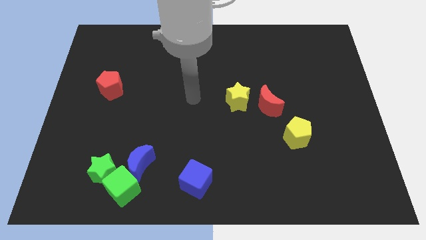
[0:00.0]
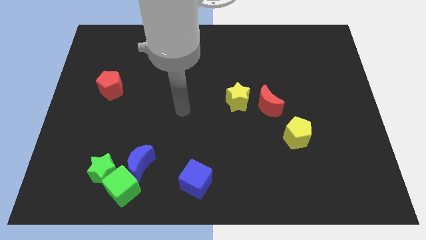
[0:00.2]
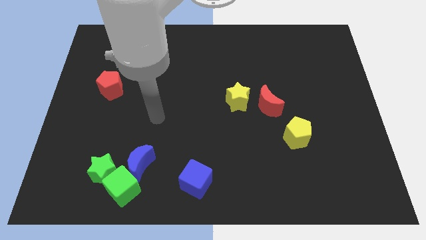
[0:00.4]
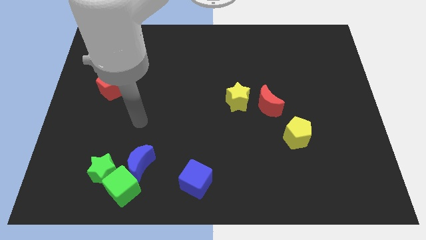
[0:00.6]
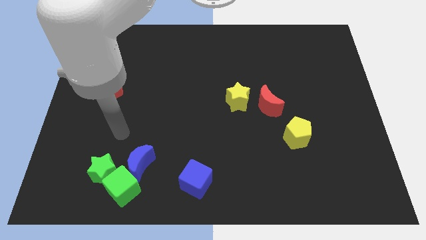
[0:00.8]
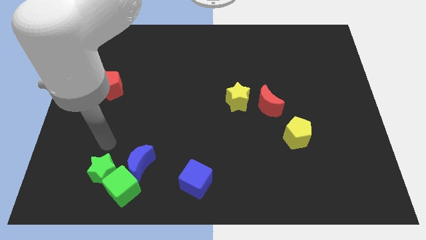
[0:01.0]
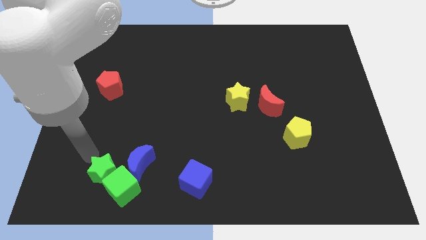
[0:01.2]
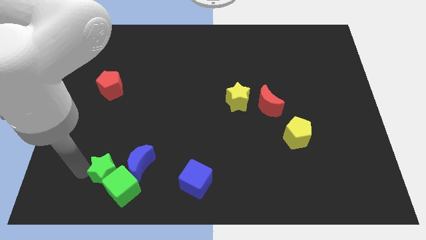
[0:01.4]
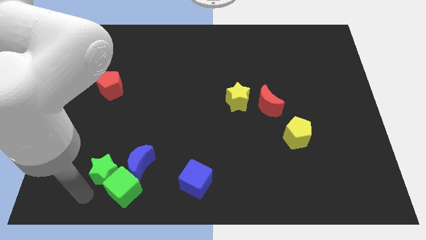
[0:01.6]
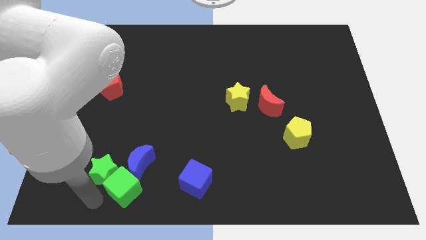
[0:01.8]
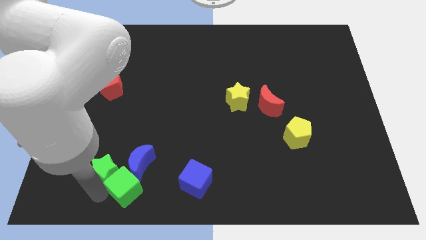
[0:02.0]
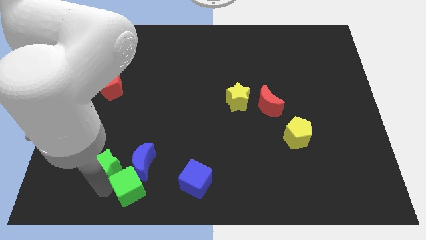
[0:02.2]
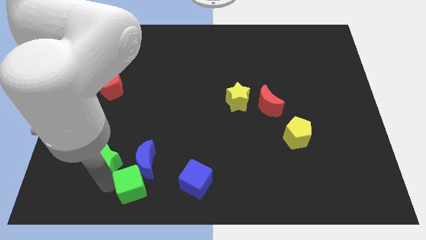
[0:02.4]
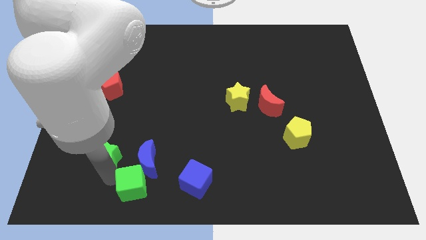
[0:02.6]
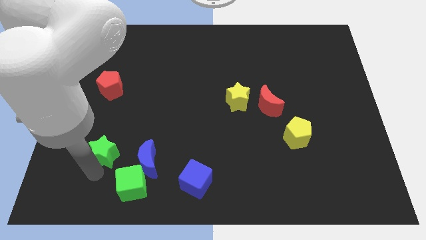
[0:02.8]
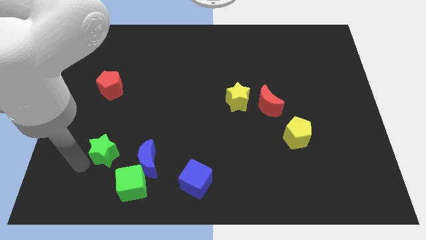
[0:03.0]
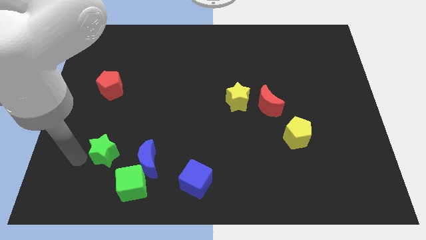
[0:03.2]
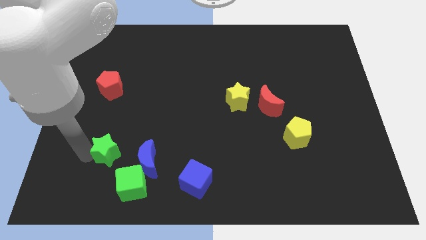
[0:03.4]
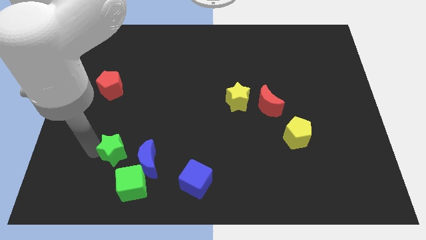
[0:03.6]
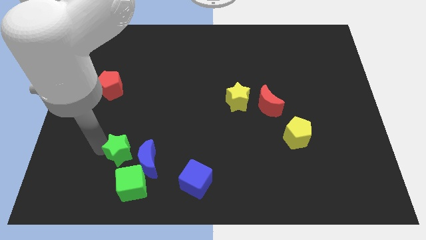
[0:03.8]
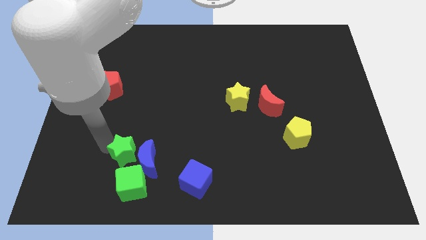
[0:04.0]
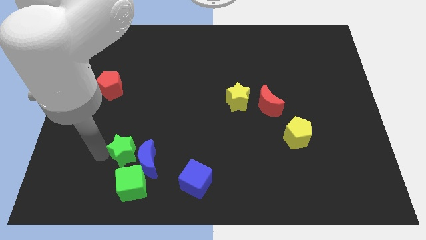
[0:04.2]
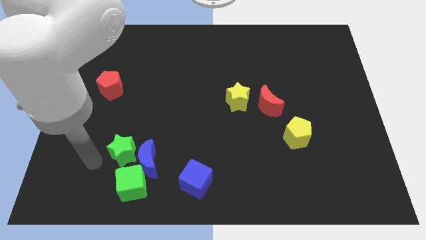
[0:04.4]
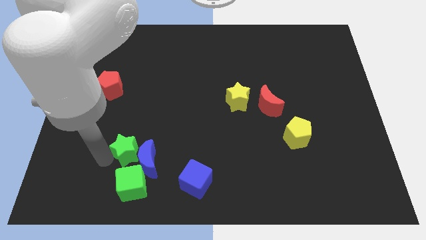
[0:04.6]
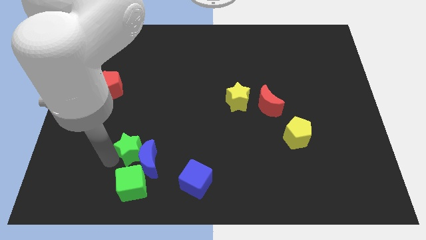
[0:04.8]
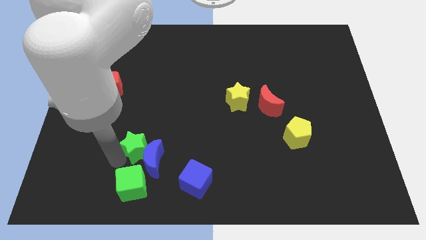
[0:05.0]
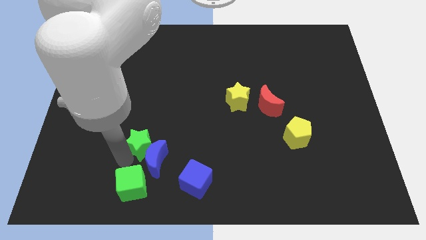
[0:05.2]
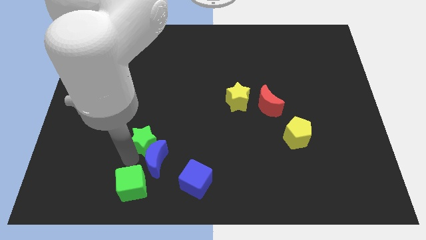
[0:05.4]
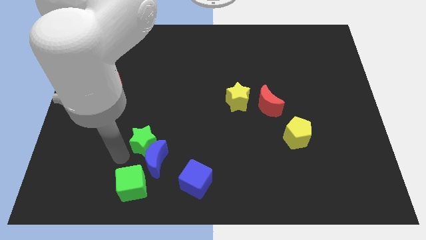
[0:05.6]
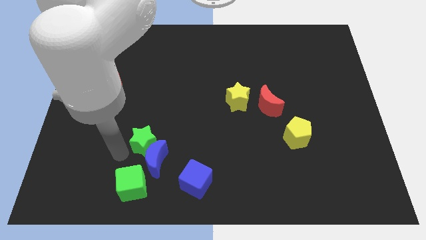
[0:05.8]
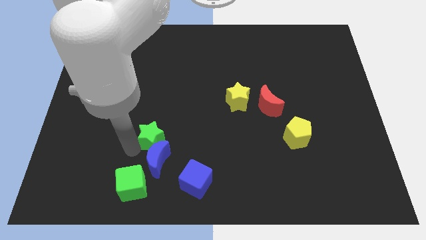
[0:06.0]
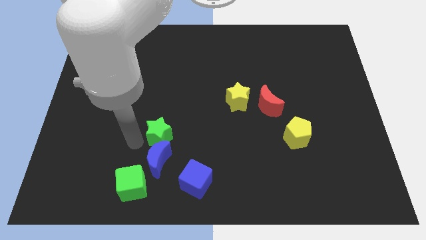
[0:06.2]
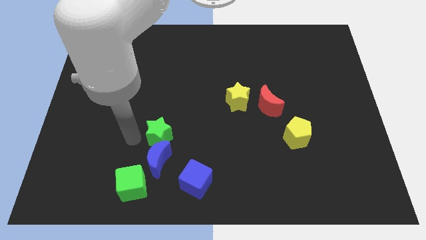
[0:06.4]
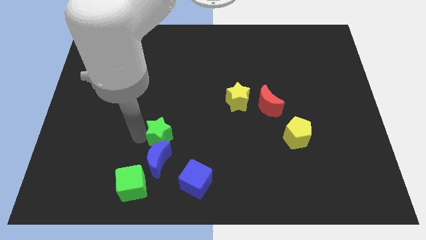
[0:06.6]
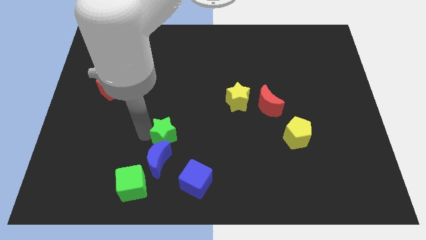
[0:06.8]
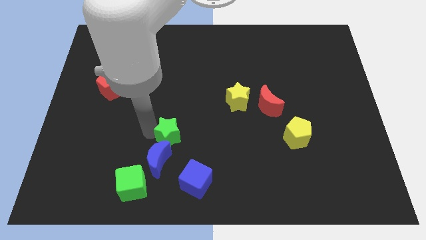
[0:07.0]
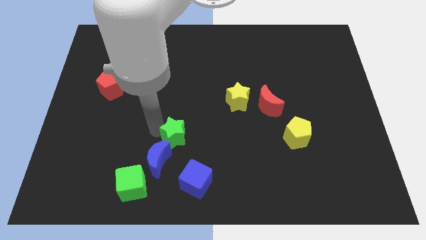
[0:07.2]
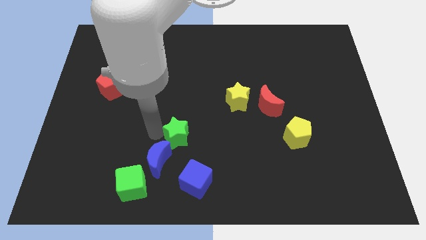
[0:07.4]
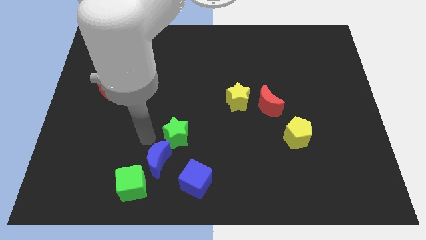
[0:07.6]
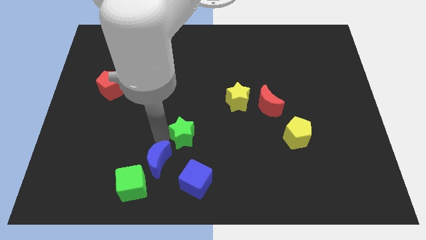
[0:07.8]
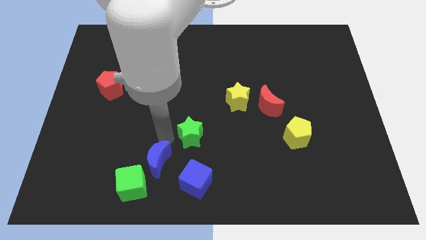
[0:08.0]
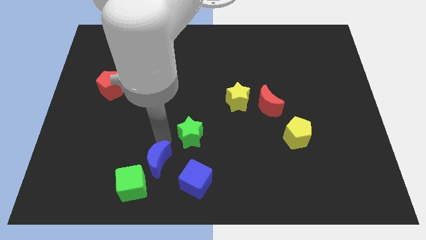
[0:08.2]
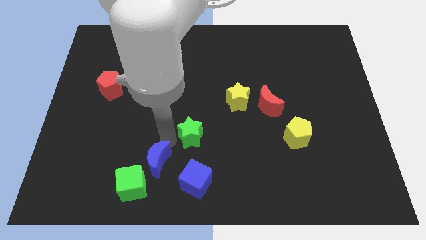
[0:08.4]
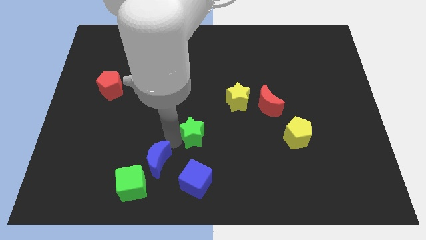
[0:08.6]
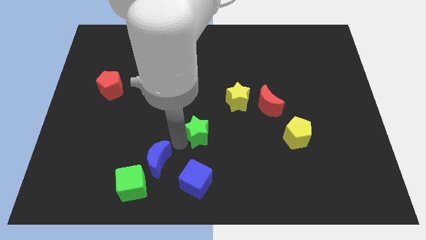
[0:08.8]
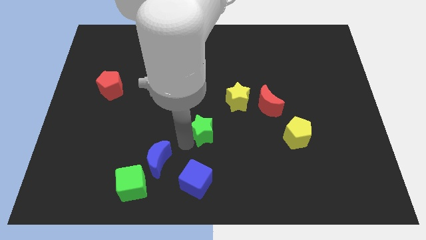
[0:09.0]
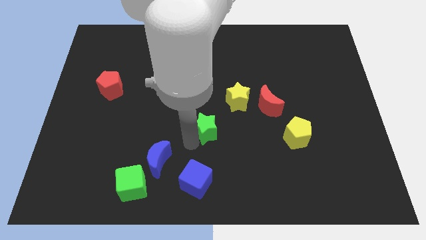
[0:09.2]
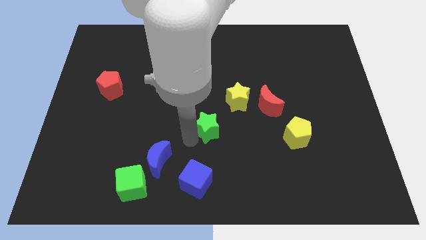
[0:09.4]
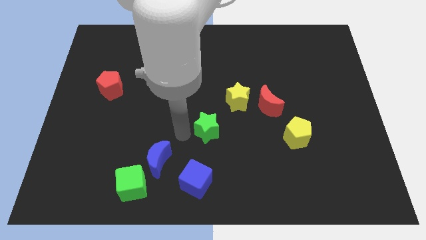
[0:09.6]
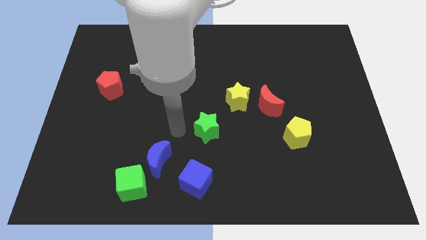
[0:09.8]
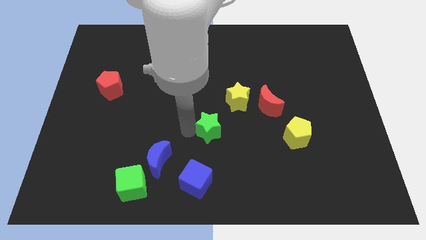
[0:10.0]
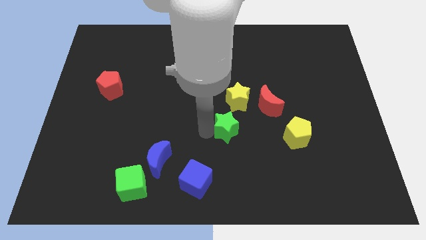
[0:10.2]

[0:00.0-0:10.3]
move the green star to the bottom left of the red moon

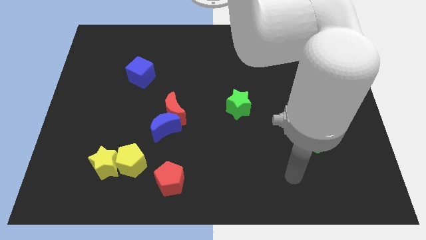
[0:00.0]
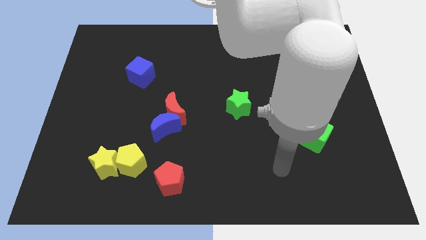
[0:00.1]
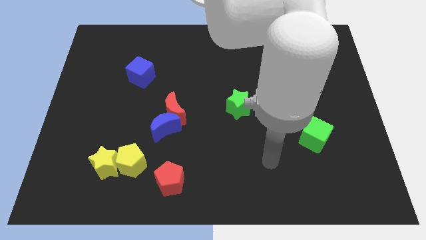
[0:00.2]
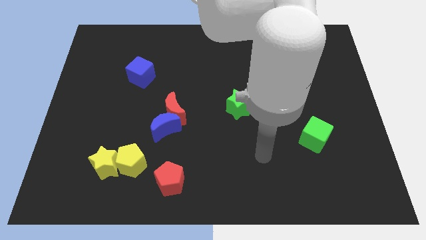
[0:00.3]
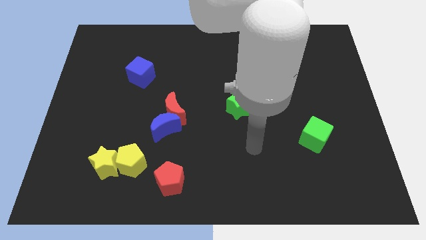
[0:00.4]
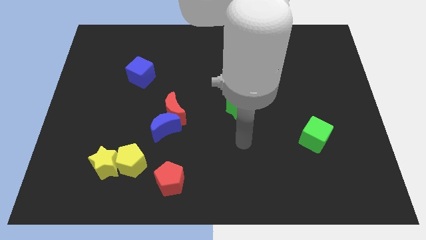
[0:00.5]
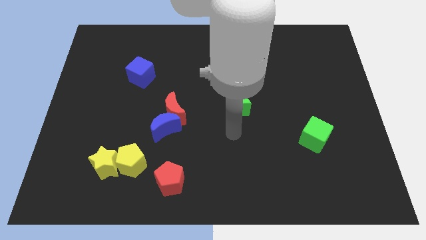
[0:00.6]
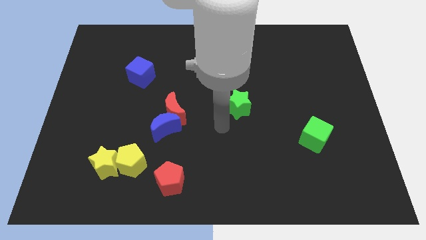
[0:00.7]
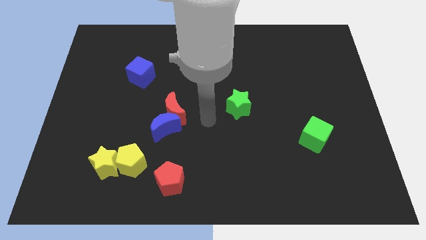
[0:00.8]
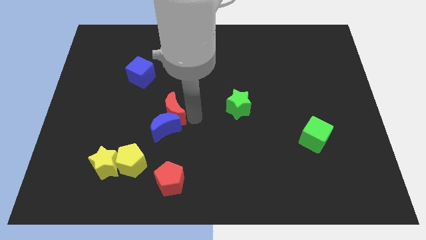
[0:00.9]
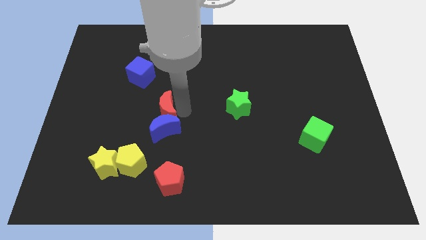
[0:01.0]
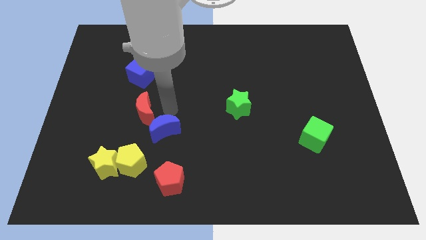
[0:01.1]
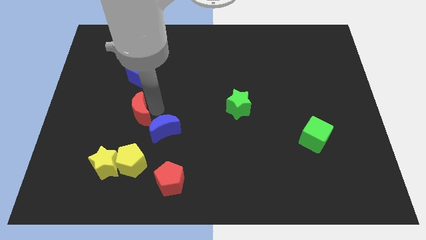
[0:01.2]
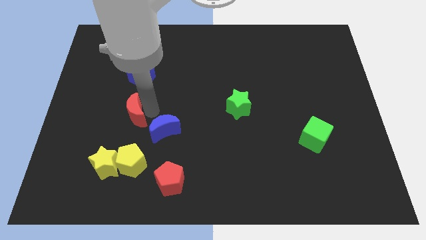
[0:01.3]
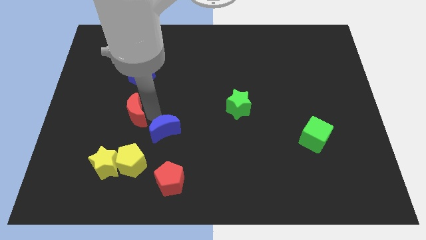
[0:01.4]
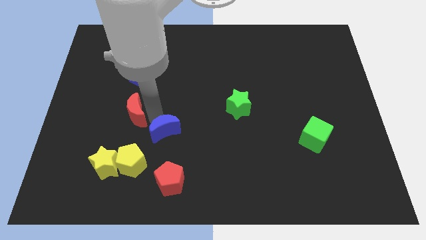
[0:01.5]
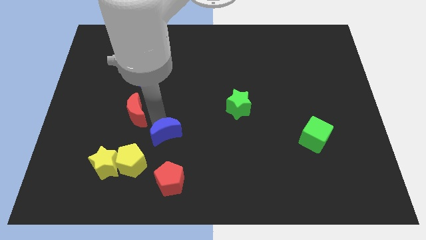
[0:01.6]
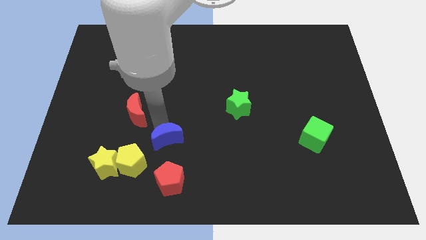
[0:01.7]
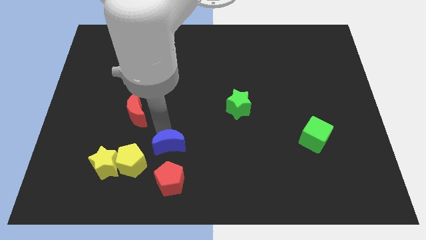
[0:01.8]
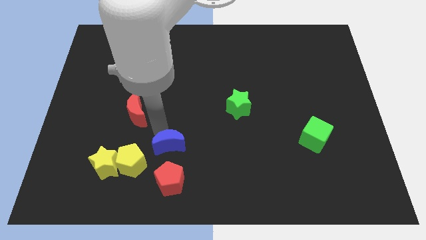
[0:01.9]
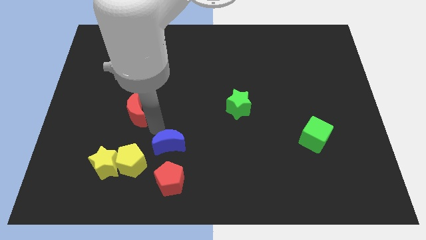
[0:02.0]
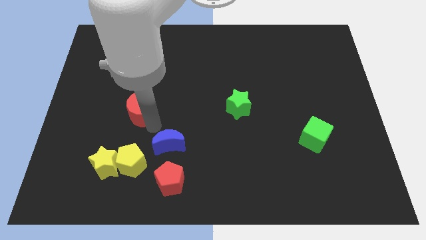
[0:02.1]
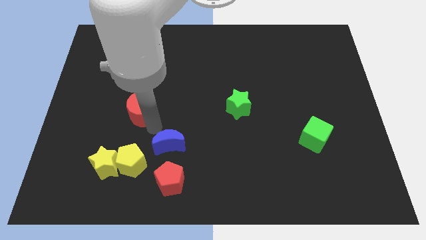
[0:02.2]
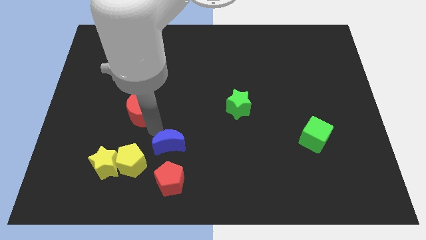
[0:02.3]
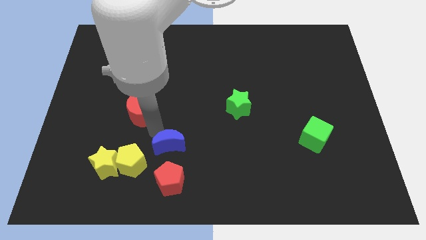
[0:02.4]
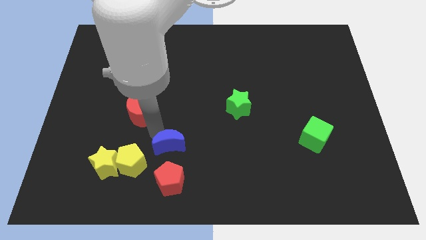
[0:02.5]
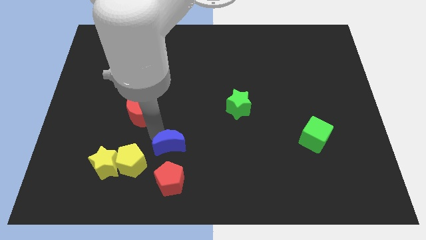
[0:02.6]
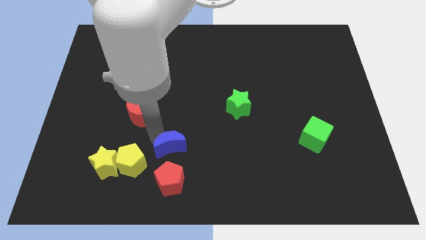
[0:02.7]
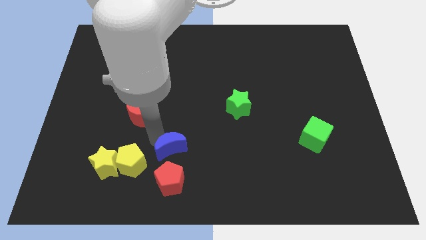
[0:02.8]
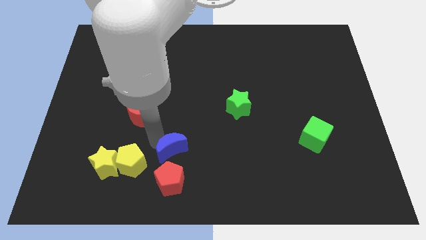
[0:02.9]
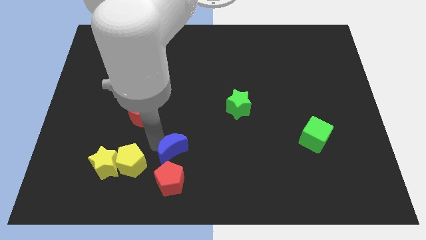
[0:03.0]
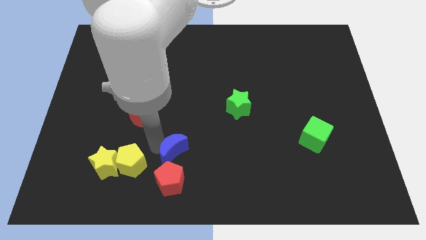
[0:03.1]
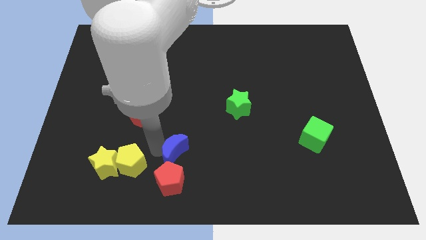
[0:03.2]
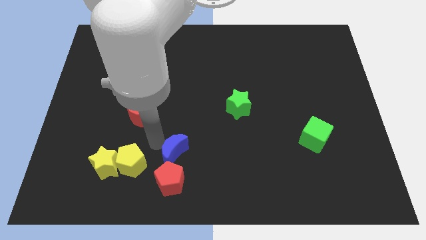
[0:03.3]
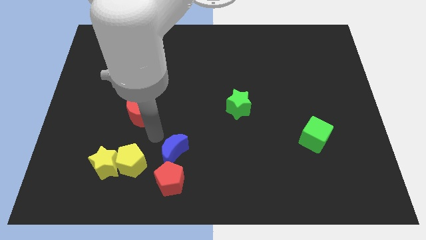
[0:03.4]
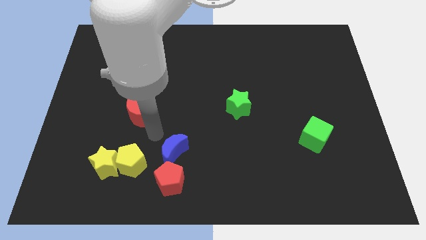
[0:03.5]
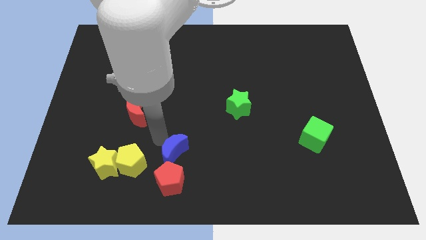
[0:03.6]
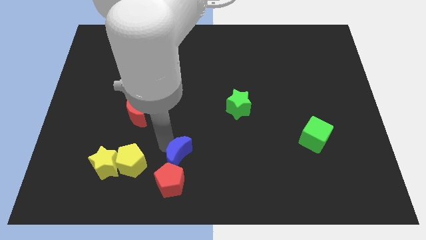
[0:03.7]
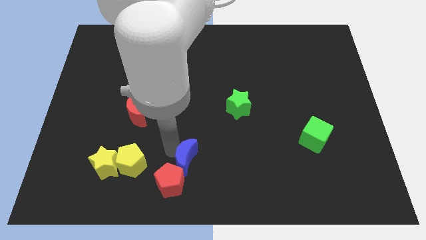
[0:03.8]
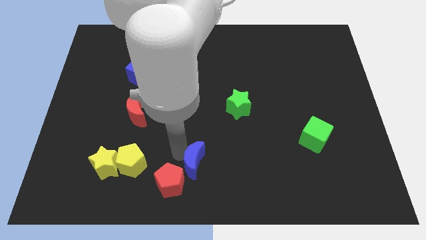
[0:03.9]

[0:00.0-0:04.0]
slide the blue moon to the right side of the red pentagon
